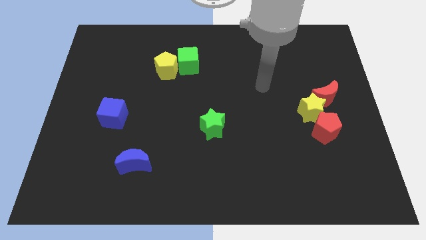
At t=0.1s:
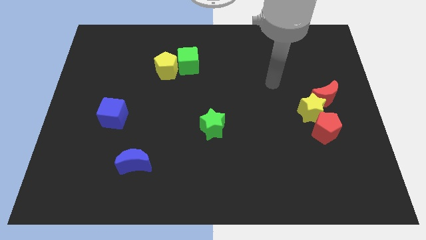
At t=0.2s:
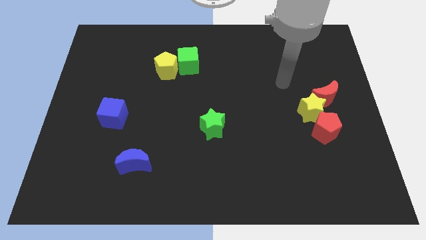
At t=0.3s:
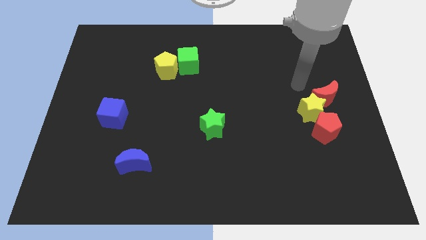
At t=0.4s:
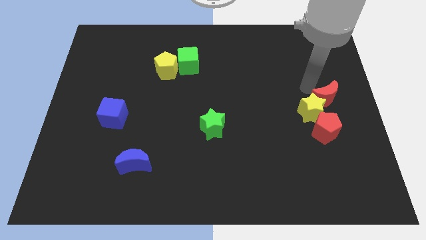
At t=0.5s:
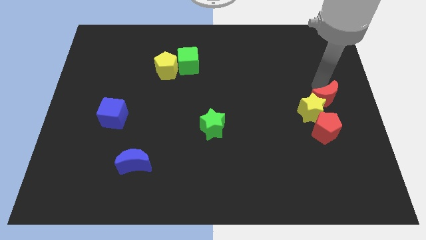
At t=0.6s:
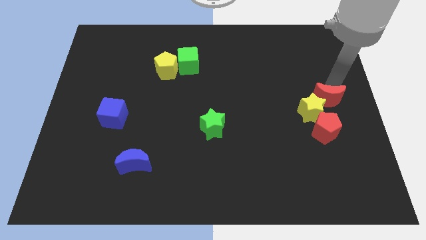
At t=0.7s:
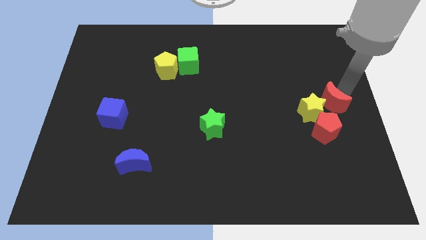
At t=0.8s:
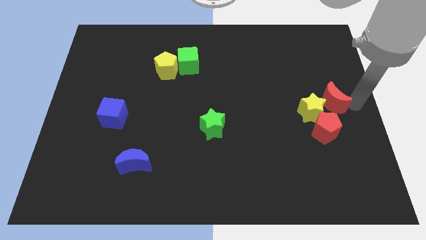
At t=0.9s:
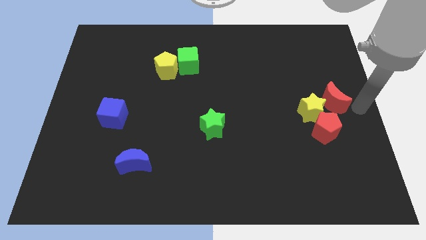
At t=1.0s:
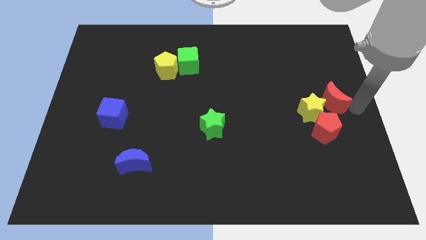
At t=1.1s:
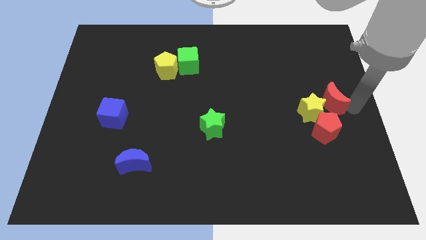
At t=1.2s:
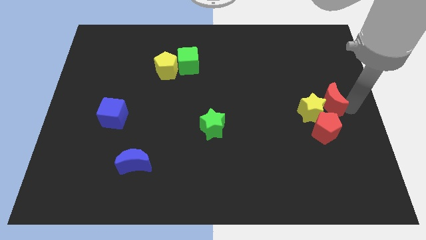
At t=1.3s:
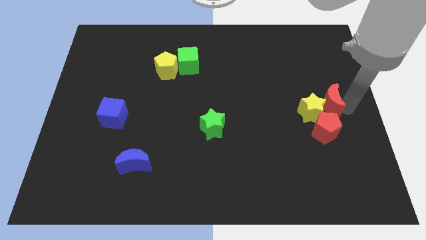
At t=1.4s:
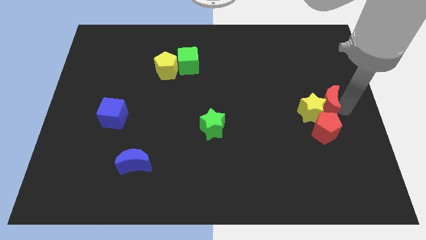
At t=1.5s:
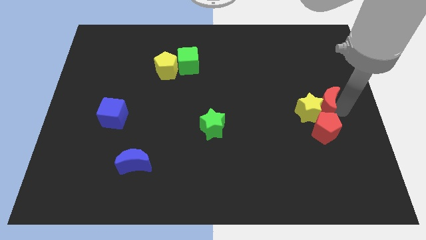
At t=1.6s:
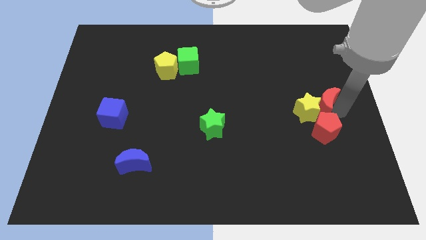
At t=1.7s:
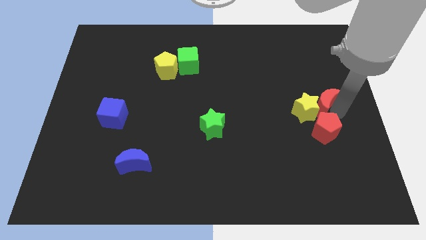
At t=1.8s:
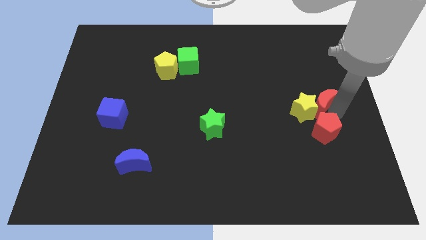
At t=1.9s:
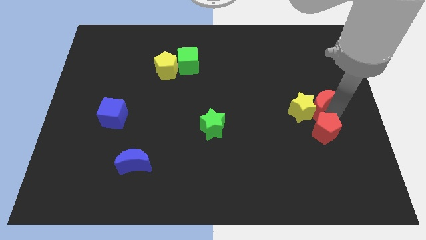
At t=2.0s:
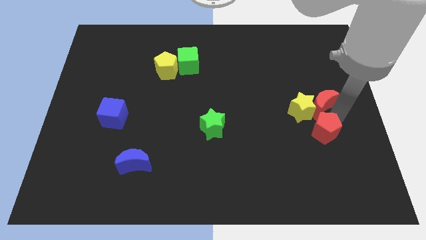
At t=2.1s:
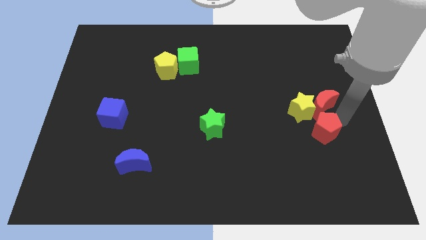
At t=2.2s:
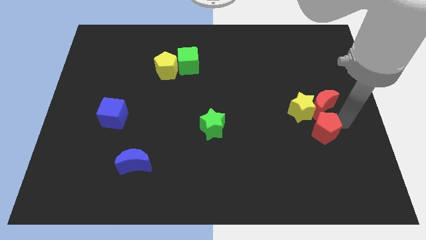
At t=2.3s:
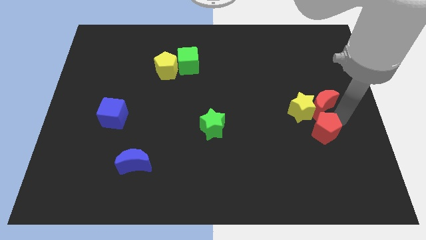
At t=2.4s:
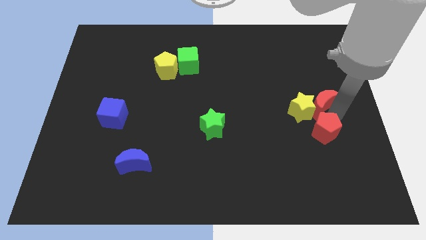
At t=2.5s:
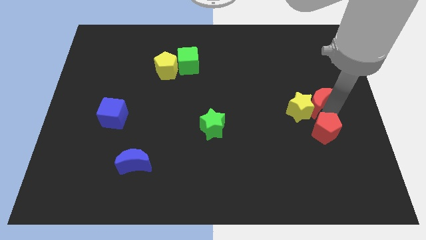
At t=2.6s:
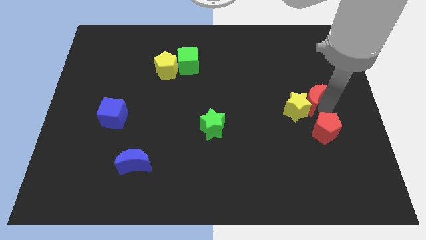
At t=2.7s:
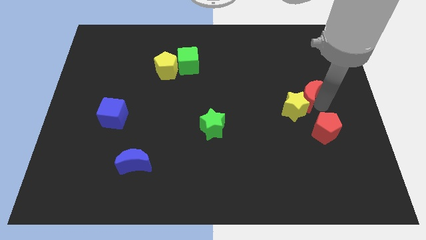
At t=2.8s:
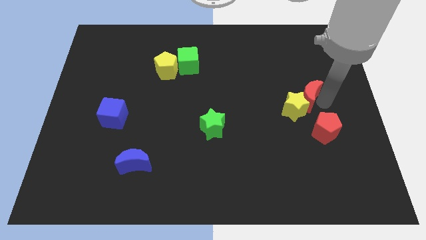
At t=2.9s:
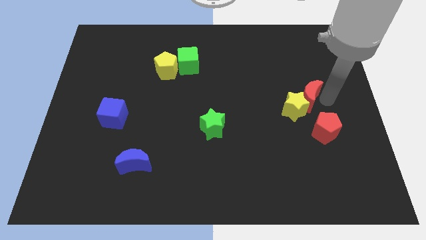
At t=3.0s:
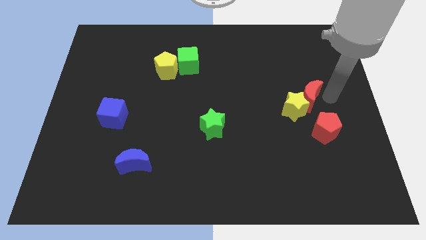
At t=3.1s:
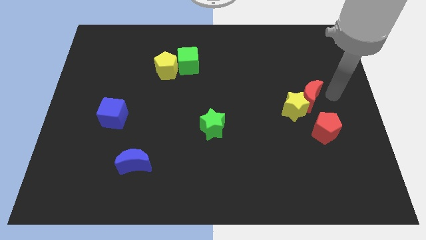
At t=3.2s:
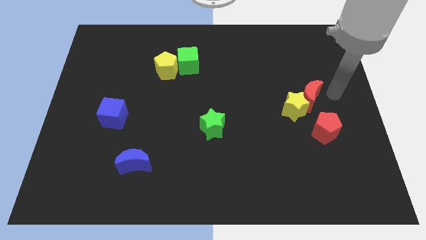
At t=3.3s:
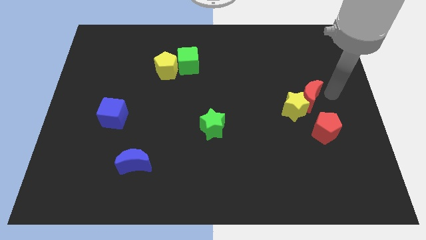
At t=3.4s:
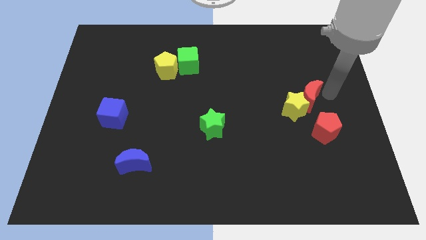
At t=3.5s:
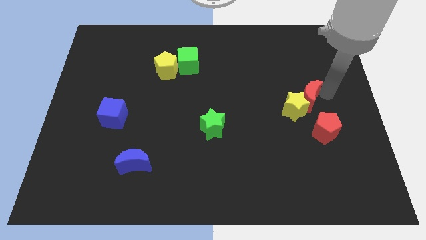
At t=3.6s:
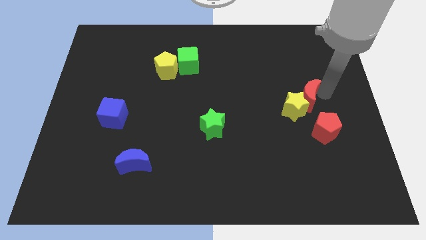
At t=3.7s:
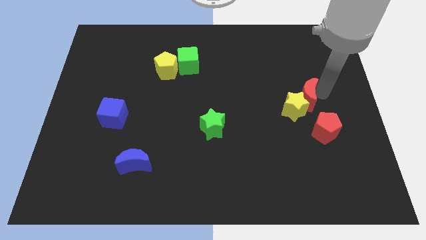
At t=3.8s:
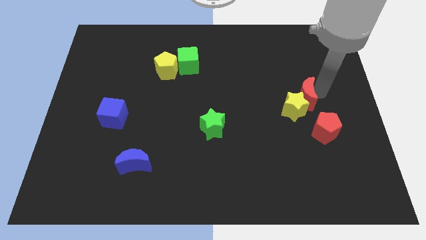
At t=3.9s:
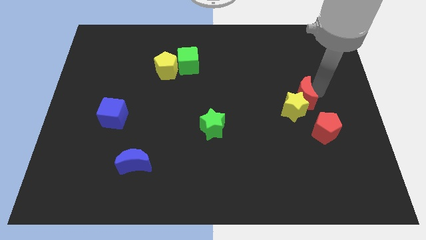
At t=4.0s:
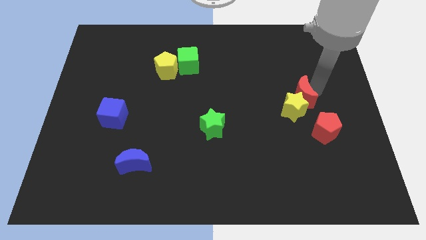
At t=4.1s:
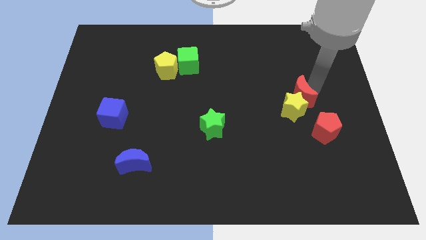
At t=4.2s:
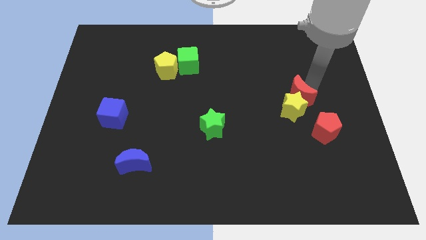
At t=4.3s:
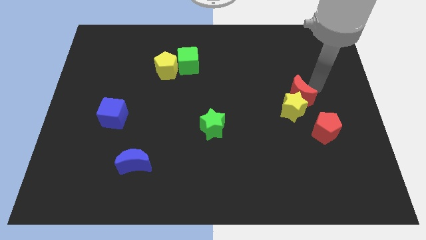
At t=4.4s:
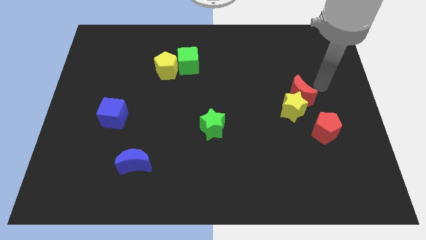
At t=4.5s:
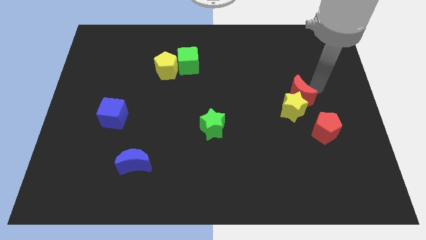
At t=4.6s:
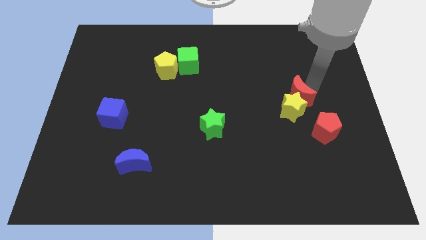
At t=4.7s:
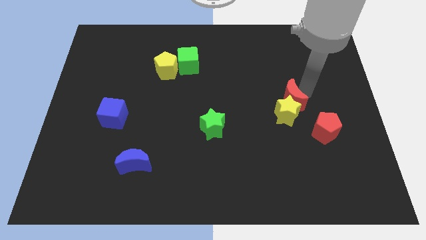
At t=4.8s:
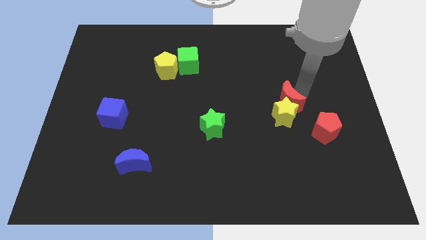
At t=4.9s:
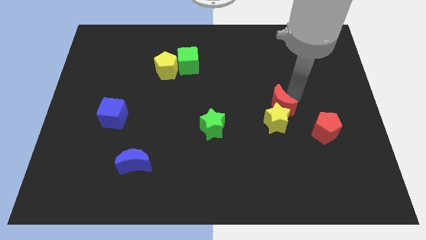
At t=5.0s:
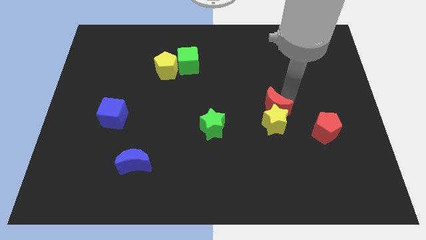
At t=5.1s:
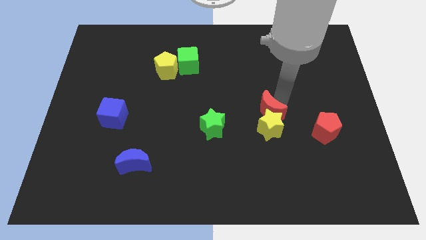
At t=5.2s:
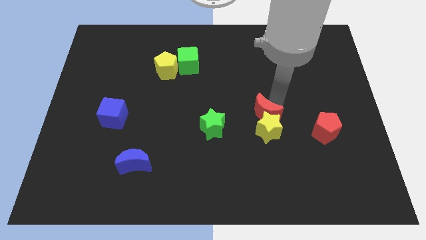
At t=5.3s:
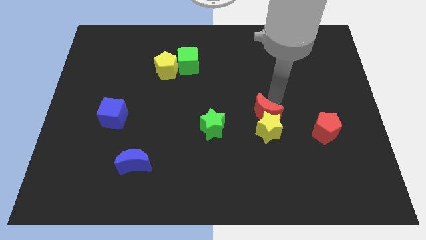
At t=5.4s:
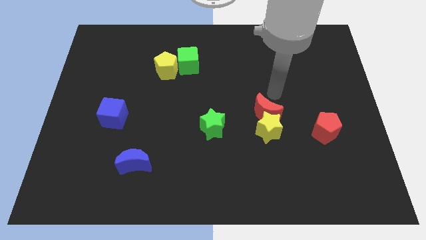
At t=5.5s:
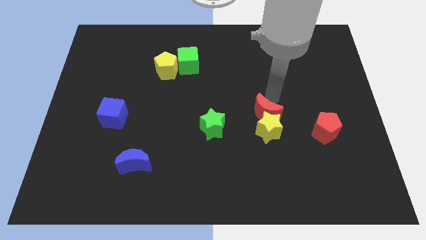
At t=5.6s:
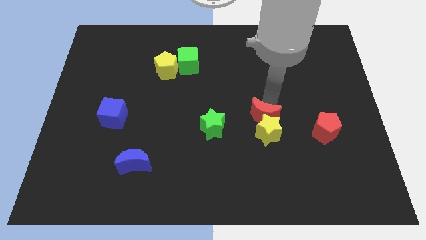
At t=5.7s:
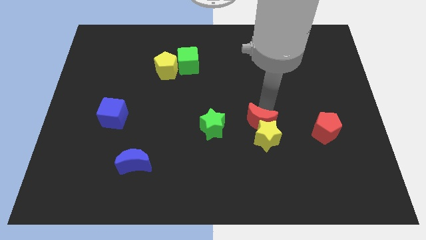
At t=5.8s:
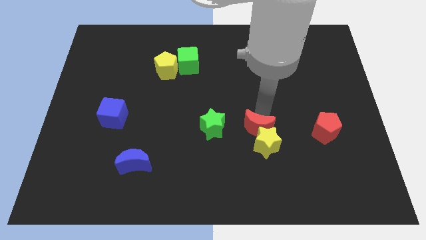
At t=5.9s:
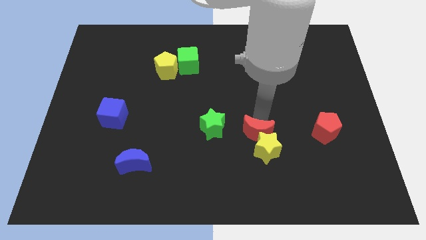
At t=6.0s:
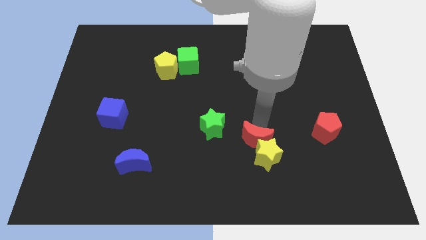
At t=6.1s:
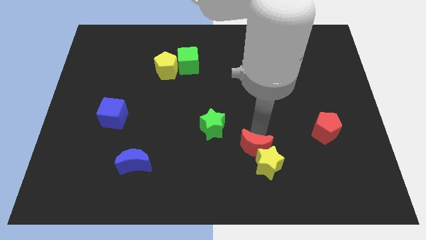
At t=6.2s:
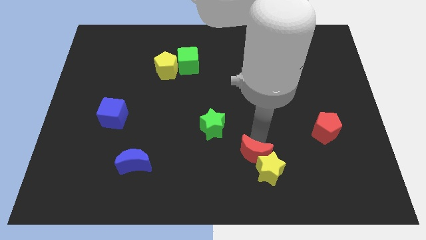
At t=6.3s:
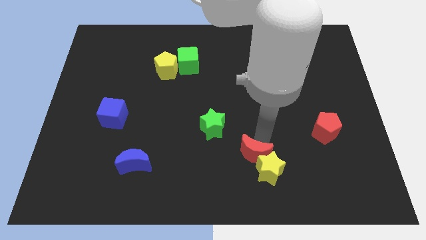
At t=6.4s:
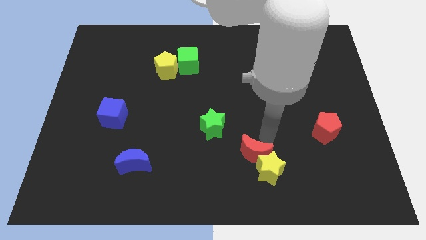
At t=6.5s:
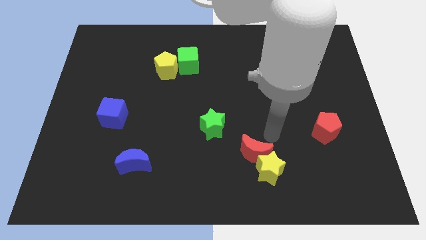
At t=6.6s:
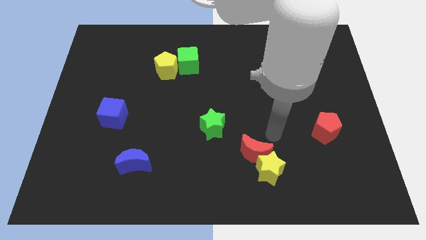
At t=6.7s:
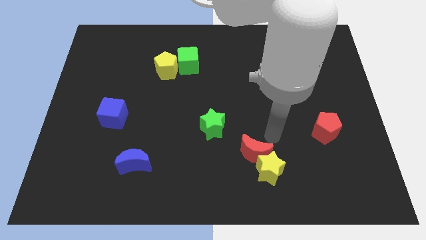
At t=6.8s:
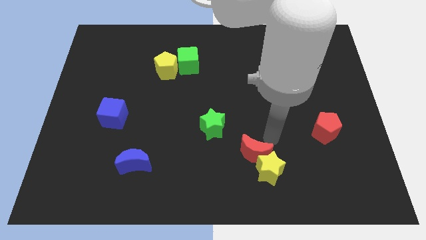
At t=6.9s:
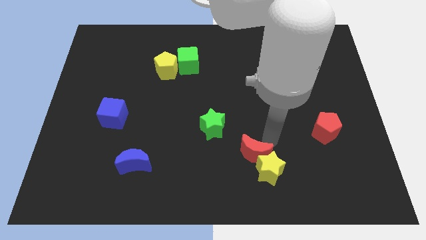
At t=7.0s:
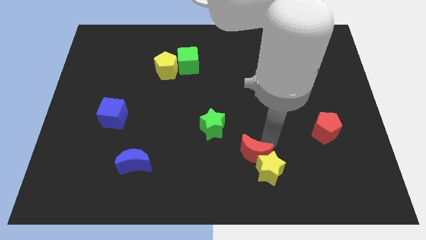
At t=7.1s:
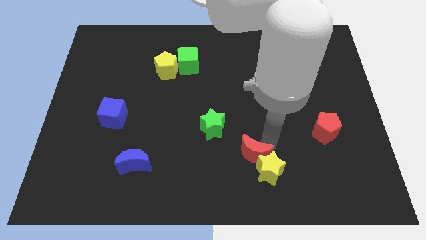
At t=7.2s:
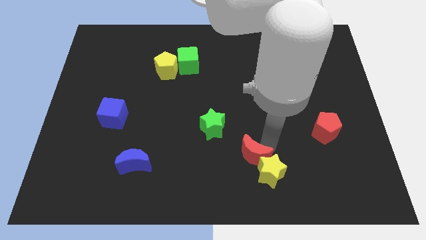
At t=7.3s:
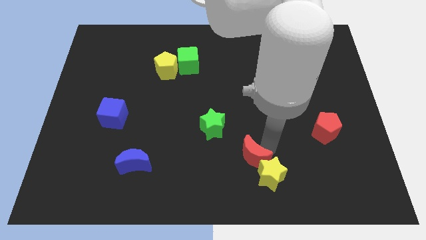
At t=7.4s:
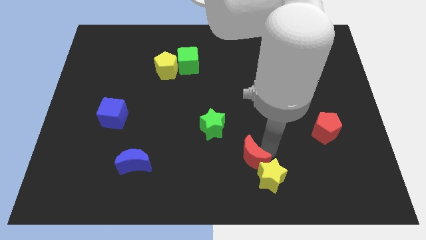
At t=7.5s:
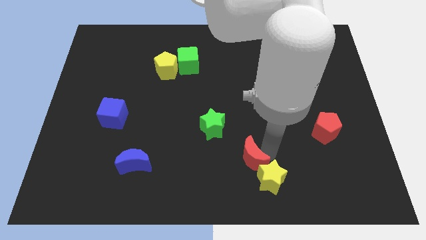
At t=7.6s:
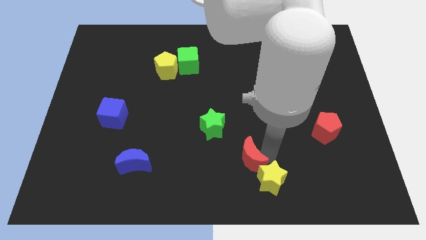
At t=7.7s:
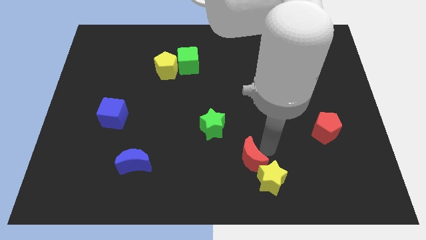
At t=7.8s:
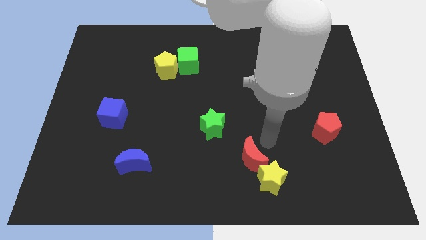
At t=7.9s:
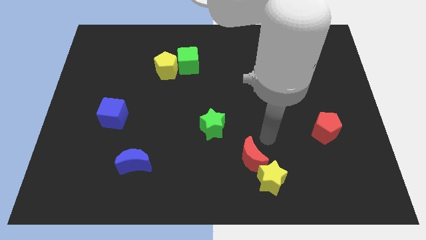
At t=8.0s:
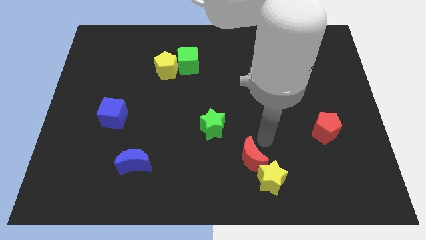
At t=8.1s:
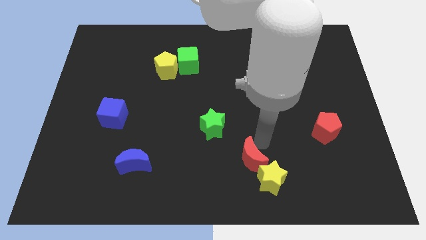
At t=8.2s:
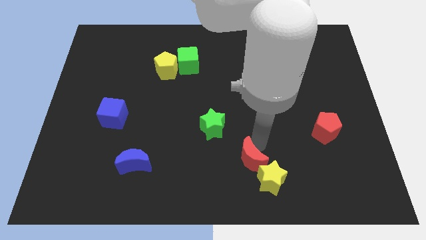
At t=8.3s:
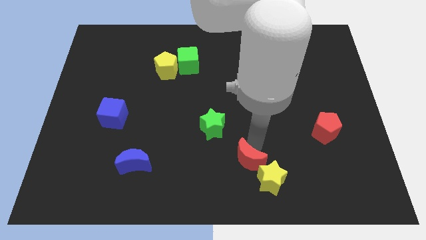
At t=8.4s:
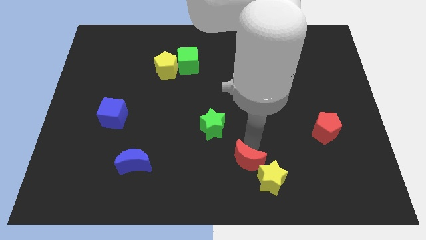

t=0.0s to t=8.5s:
push the red moon to the bottom side
